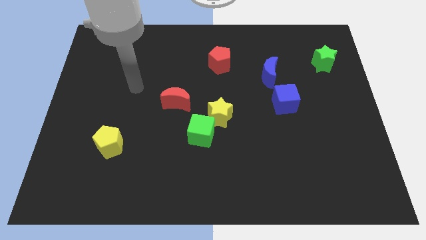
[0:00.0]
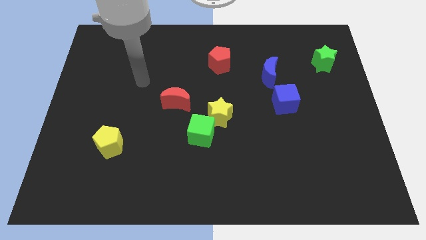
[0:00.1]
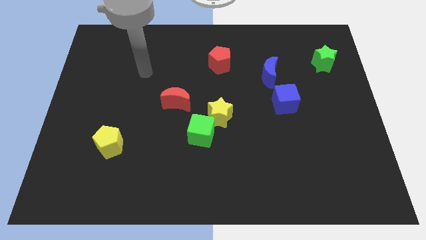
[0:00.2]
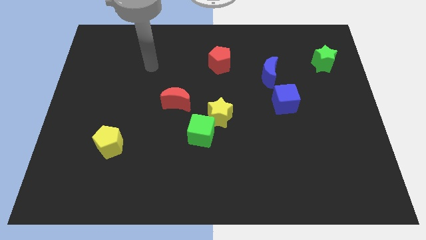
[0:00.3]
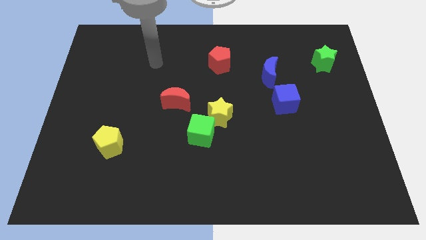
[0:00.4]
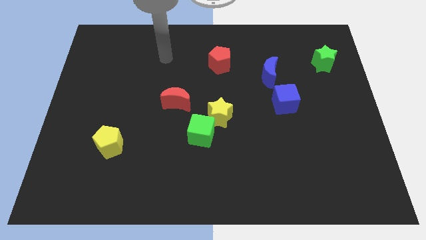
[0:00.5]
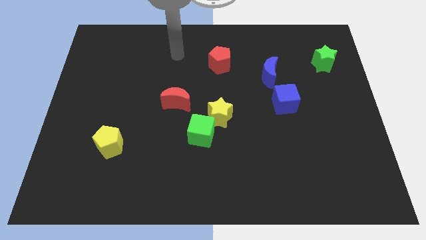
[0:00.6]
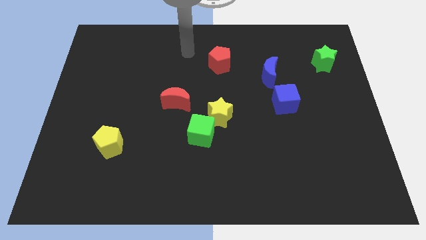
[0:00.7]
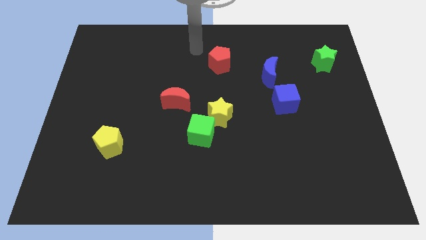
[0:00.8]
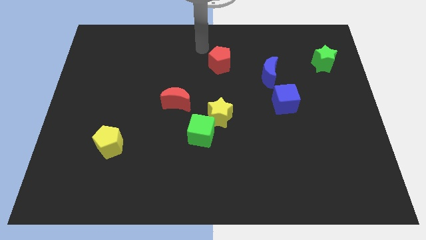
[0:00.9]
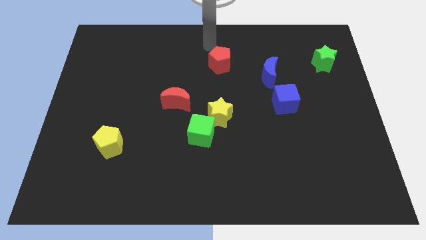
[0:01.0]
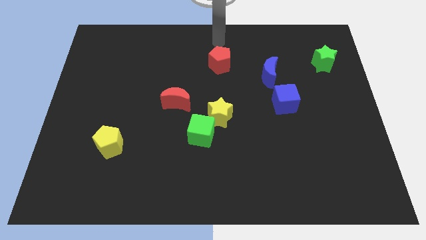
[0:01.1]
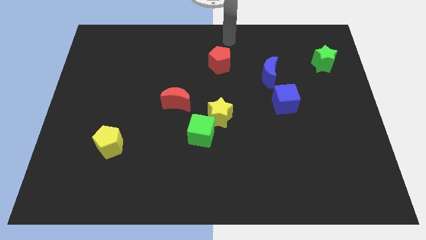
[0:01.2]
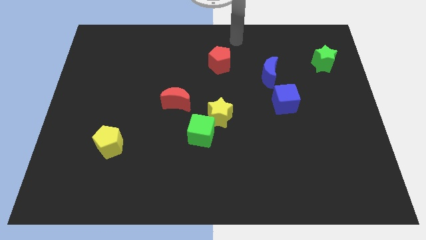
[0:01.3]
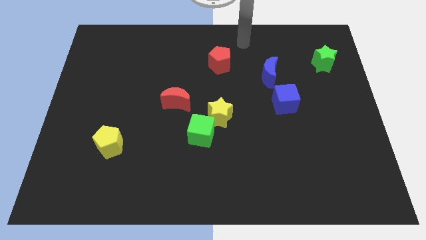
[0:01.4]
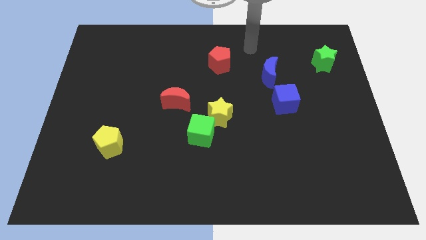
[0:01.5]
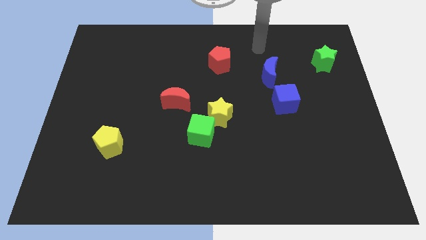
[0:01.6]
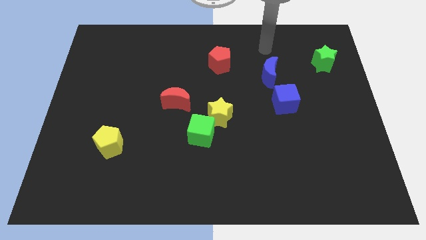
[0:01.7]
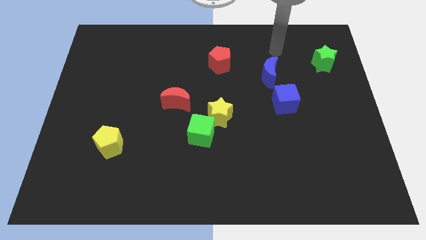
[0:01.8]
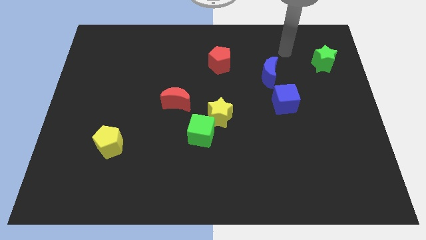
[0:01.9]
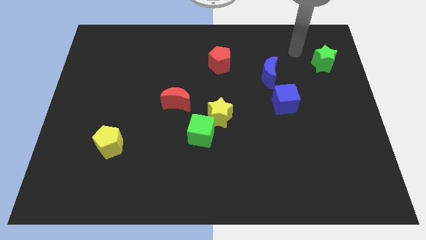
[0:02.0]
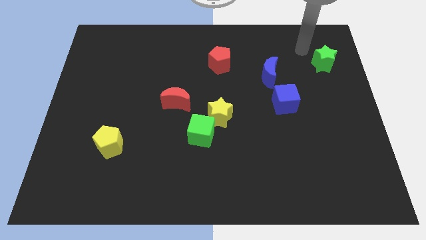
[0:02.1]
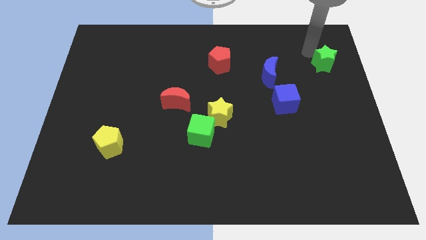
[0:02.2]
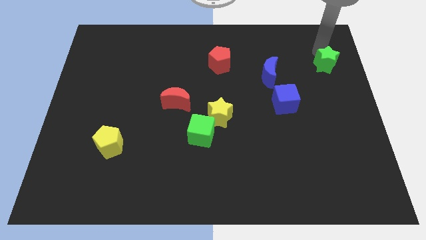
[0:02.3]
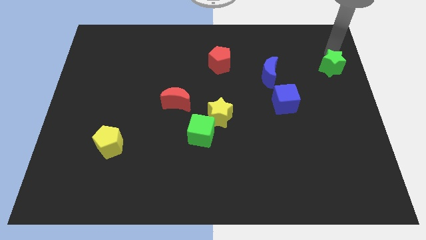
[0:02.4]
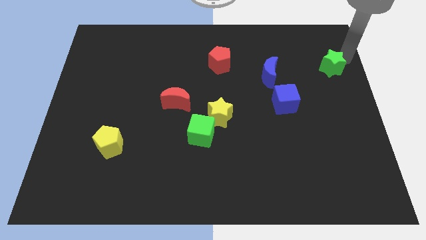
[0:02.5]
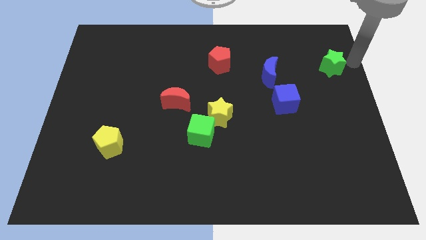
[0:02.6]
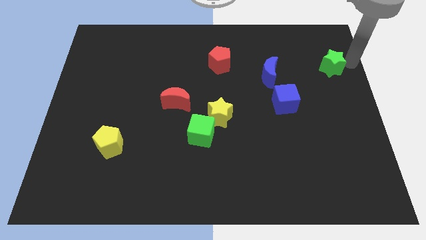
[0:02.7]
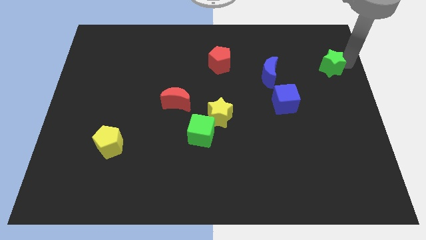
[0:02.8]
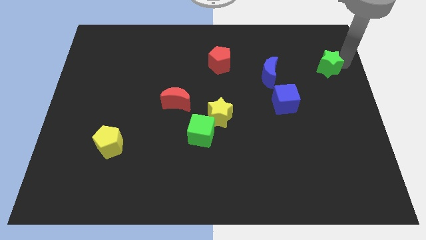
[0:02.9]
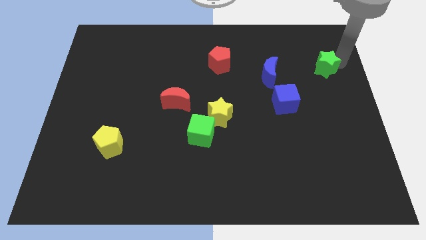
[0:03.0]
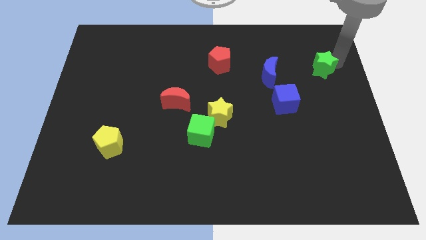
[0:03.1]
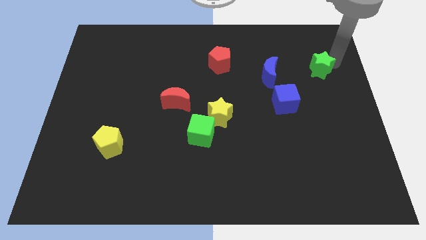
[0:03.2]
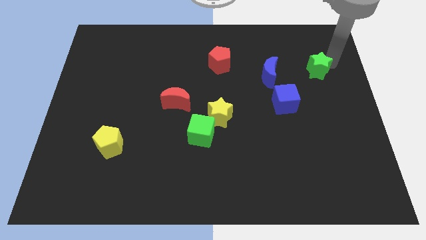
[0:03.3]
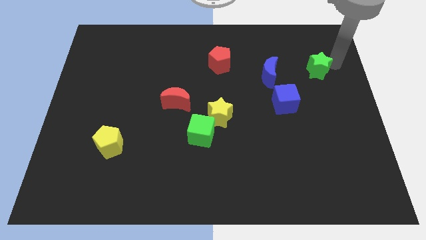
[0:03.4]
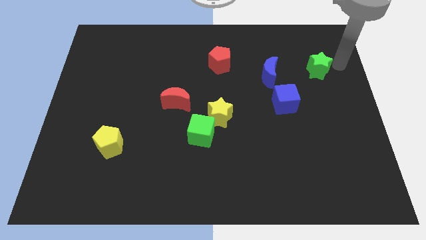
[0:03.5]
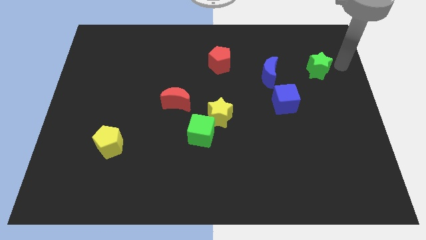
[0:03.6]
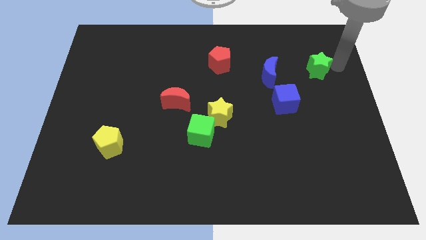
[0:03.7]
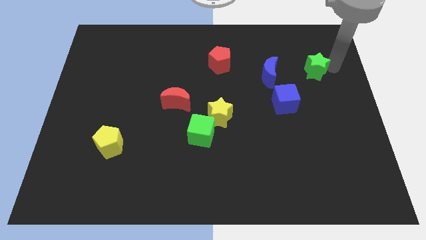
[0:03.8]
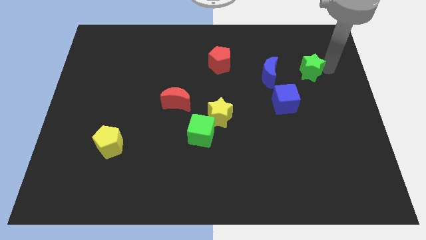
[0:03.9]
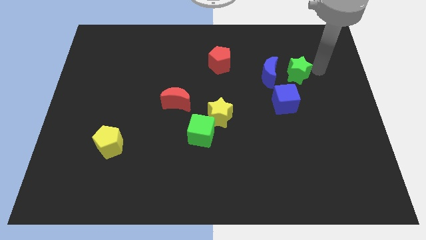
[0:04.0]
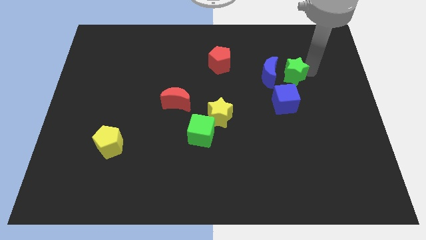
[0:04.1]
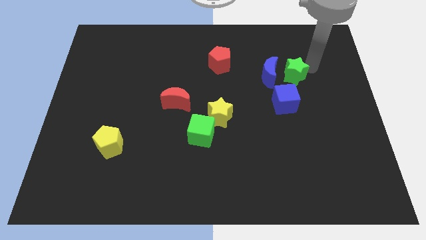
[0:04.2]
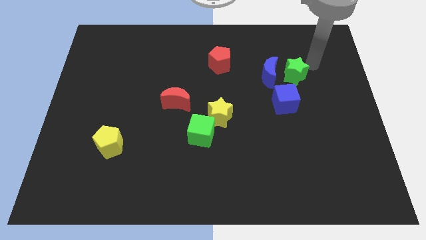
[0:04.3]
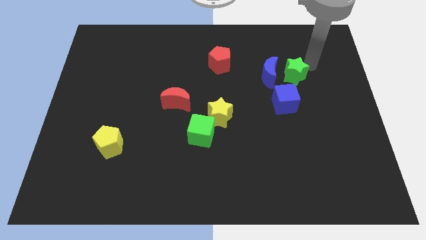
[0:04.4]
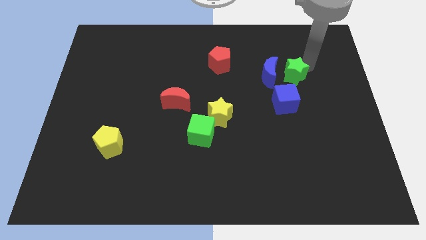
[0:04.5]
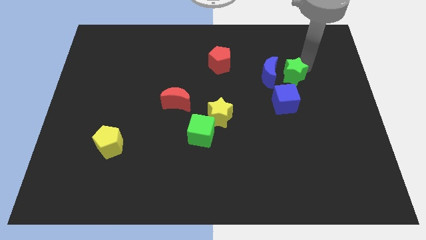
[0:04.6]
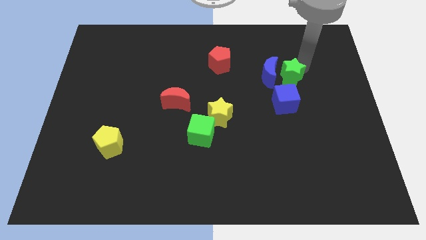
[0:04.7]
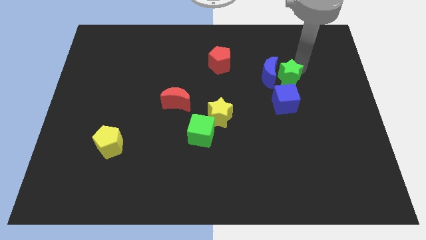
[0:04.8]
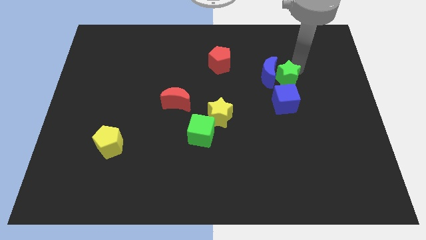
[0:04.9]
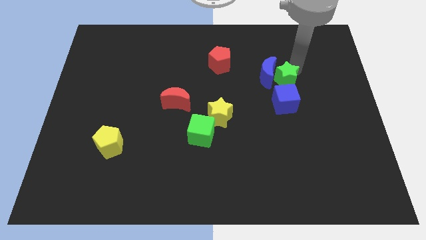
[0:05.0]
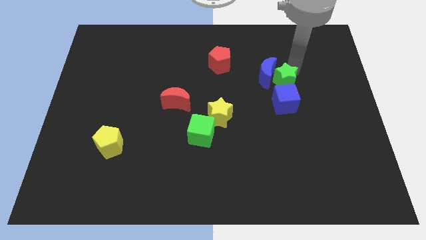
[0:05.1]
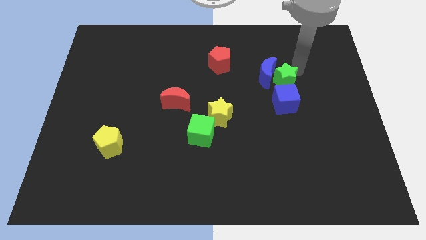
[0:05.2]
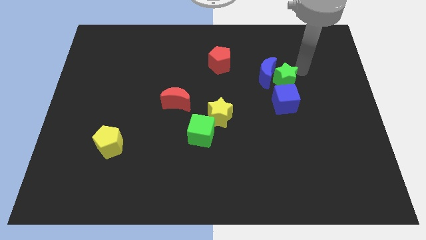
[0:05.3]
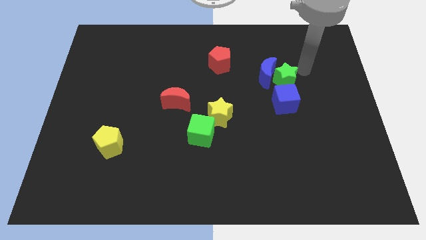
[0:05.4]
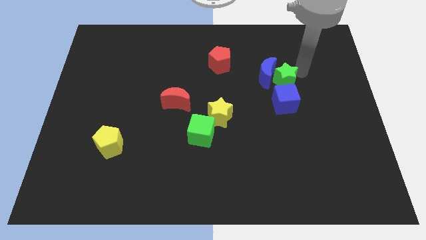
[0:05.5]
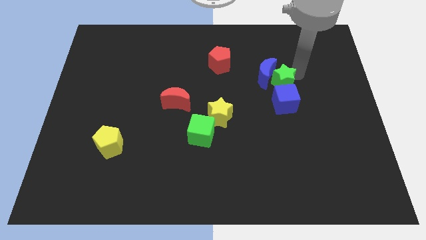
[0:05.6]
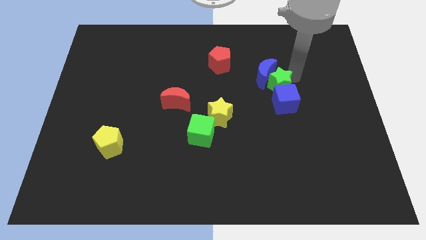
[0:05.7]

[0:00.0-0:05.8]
move the green star below the blue moon

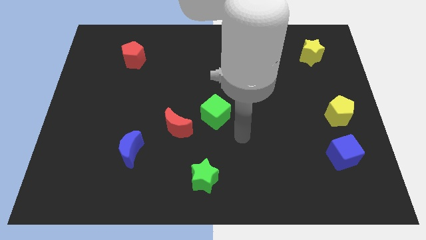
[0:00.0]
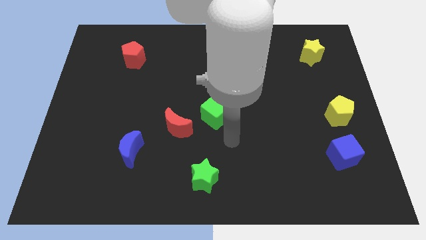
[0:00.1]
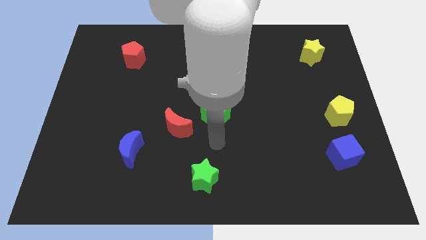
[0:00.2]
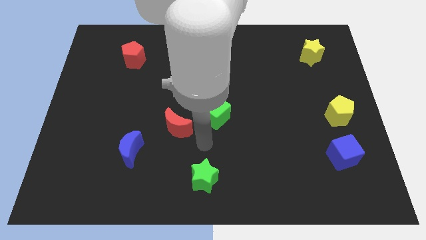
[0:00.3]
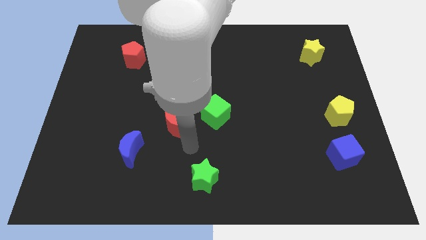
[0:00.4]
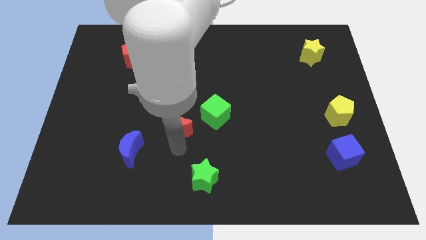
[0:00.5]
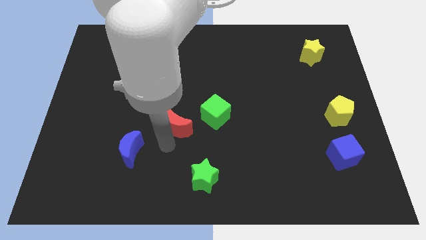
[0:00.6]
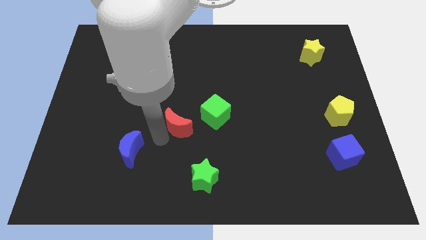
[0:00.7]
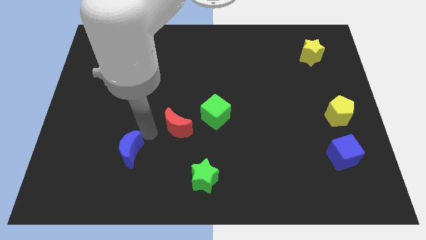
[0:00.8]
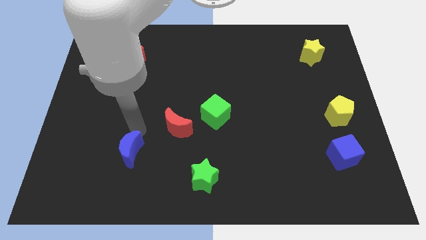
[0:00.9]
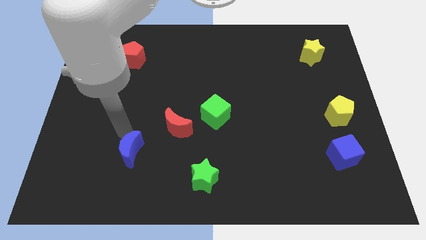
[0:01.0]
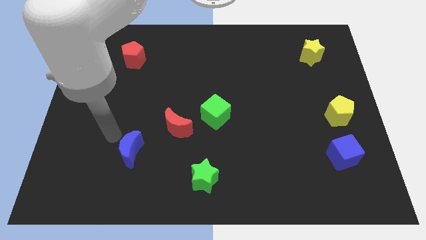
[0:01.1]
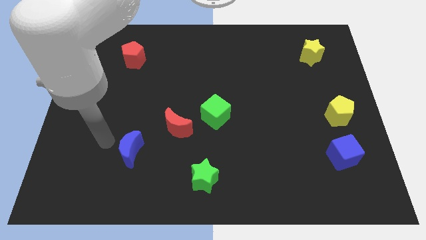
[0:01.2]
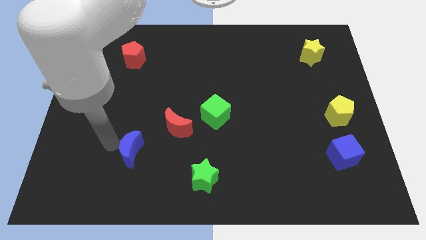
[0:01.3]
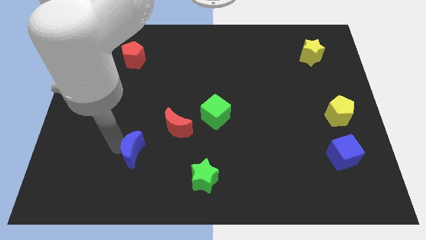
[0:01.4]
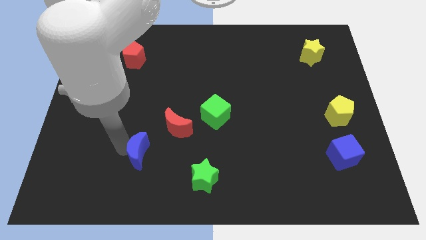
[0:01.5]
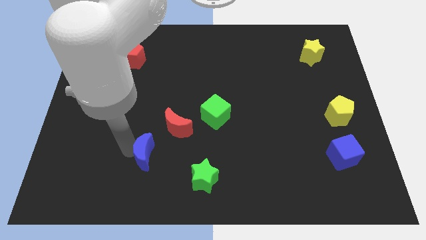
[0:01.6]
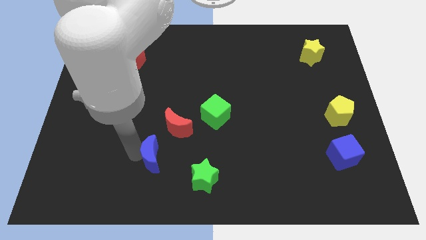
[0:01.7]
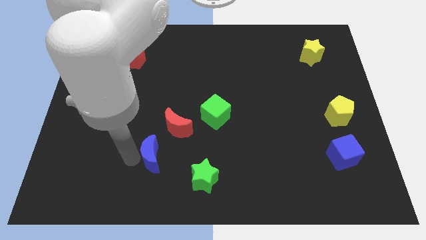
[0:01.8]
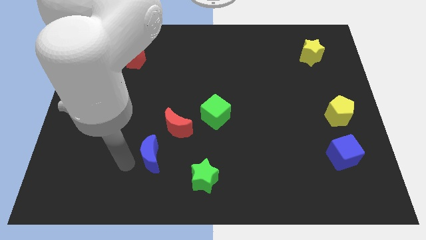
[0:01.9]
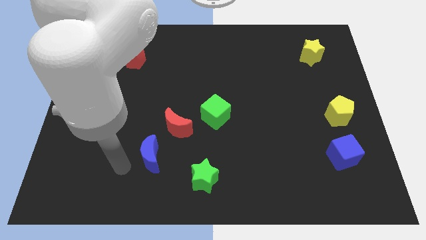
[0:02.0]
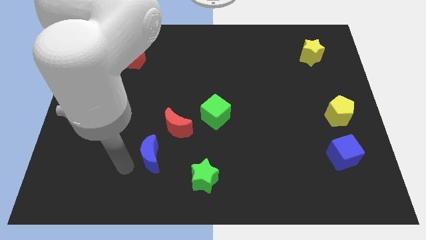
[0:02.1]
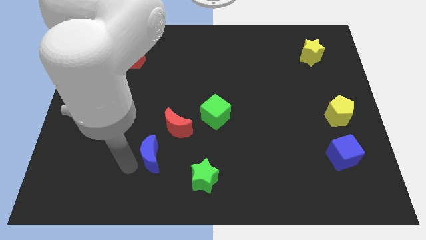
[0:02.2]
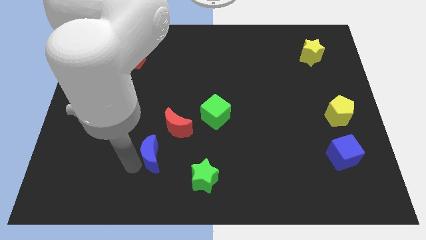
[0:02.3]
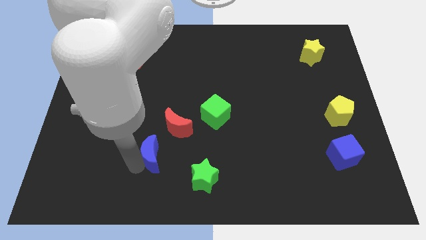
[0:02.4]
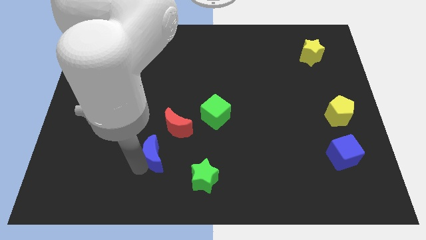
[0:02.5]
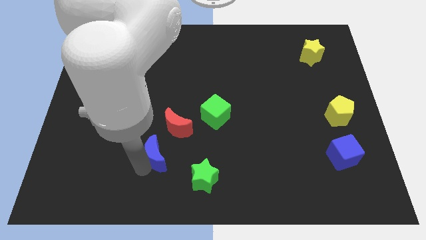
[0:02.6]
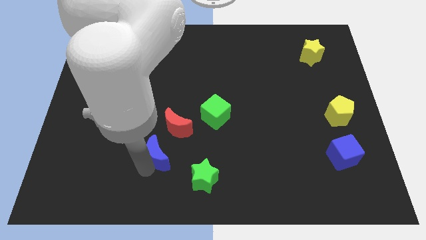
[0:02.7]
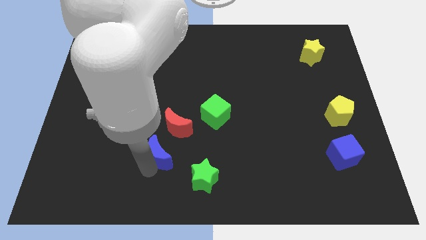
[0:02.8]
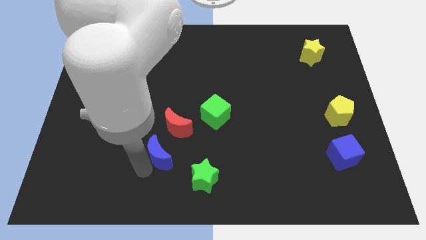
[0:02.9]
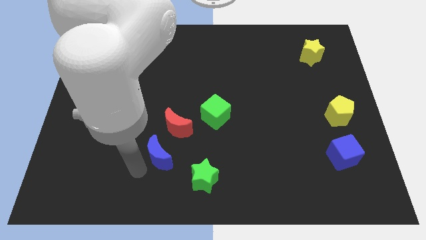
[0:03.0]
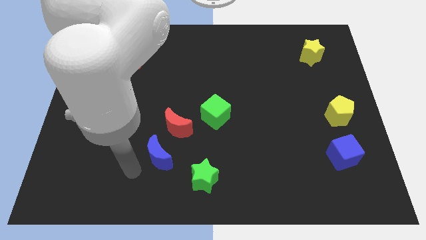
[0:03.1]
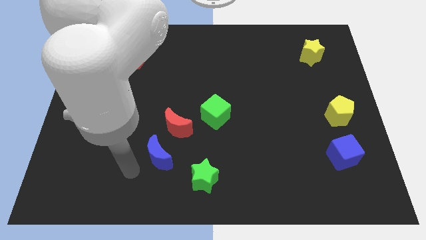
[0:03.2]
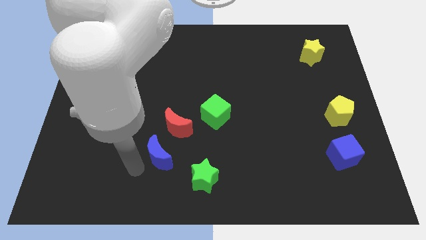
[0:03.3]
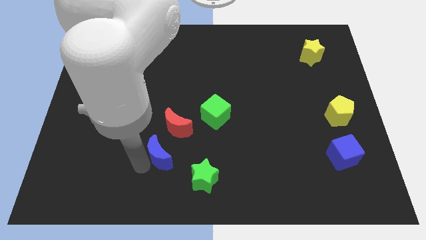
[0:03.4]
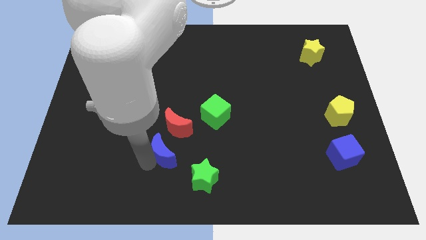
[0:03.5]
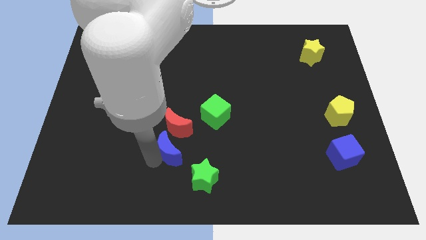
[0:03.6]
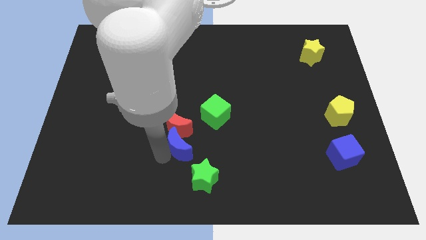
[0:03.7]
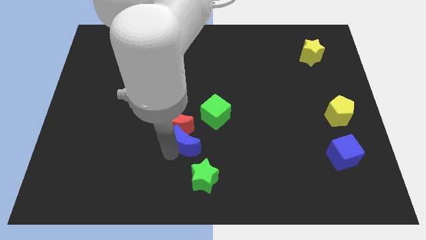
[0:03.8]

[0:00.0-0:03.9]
slide the blue moon to the top side of the green star
